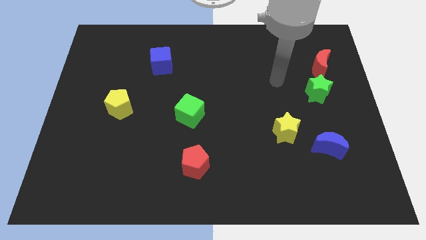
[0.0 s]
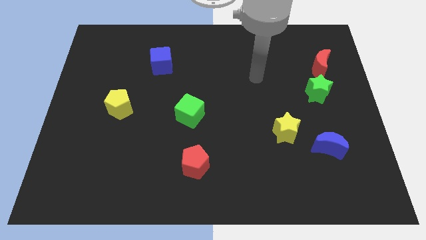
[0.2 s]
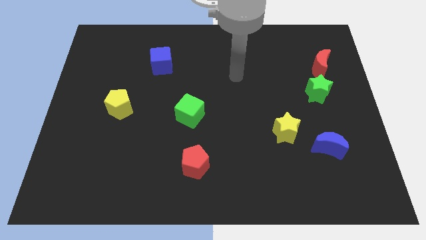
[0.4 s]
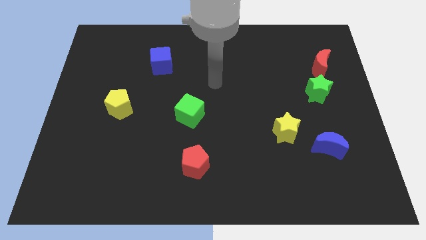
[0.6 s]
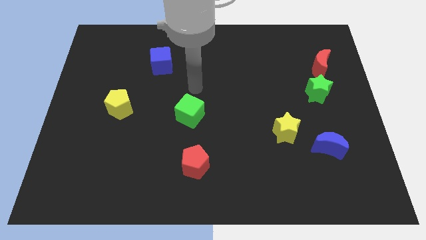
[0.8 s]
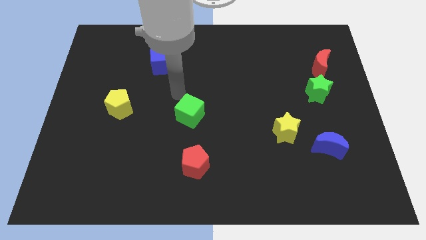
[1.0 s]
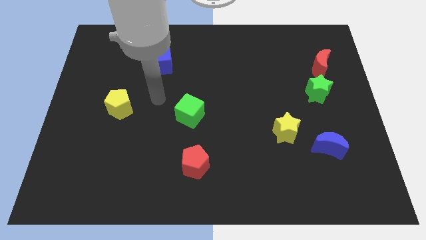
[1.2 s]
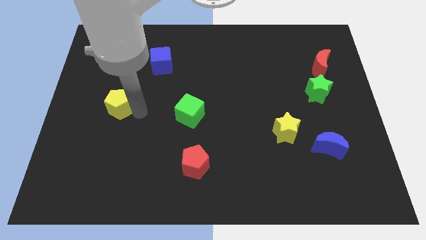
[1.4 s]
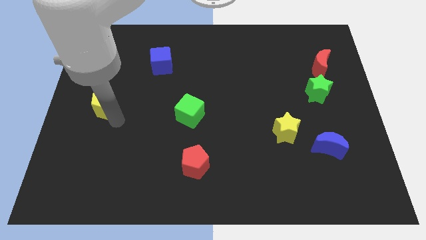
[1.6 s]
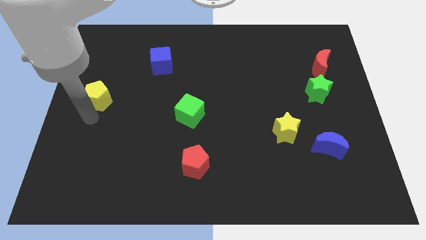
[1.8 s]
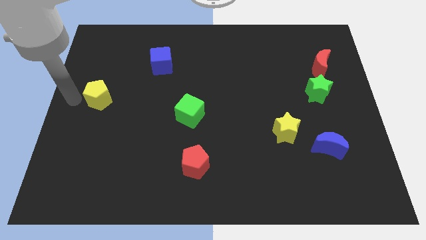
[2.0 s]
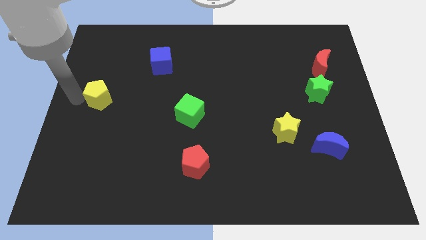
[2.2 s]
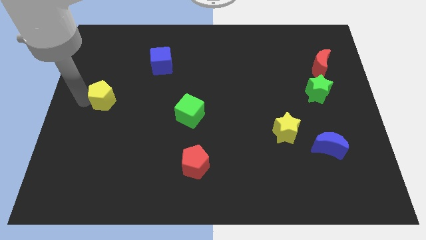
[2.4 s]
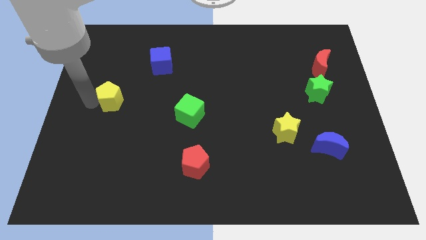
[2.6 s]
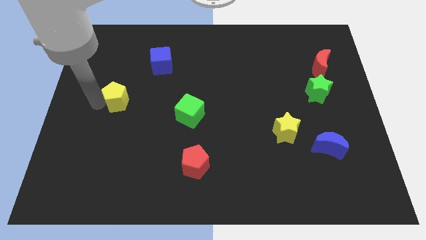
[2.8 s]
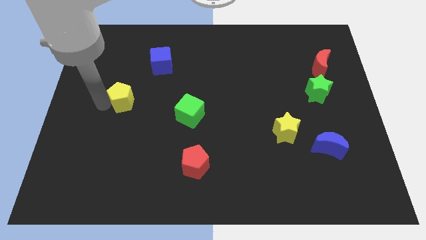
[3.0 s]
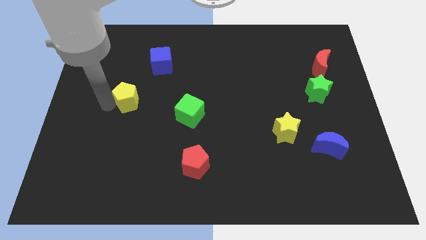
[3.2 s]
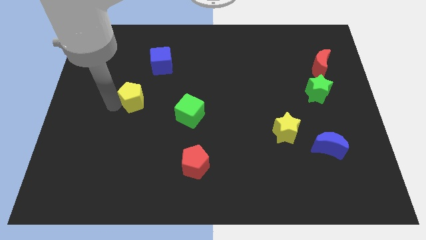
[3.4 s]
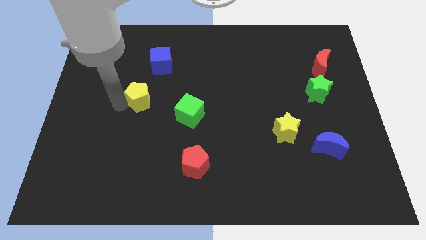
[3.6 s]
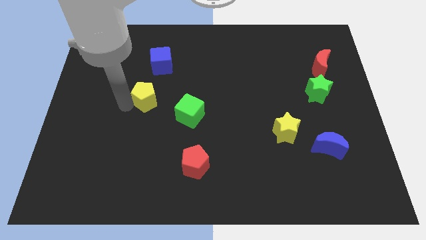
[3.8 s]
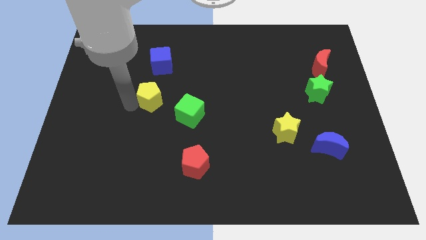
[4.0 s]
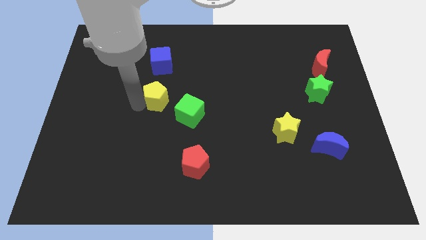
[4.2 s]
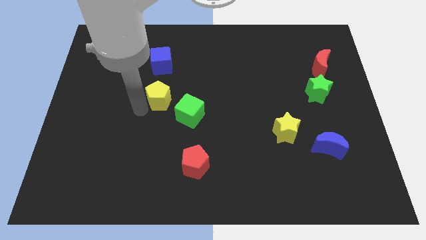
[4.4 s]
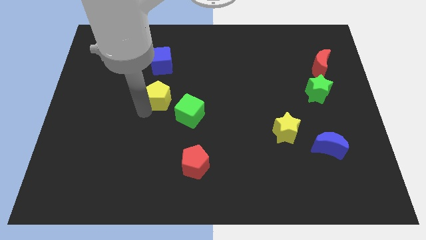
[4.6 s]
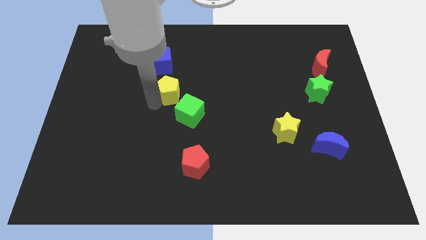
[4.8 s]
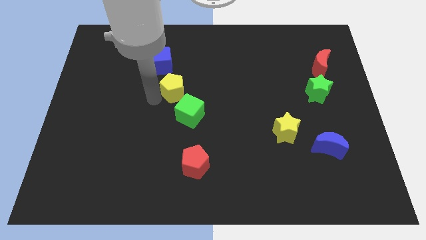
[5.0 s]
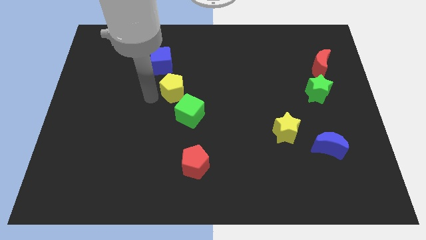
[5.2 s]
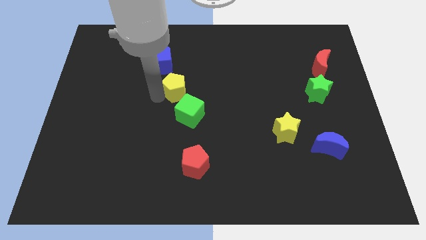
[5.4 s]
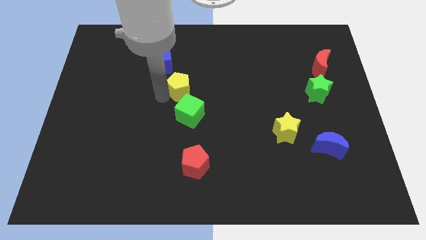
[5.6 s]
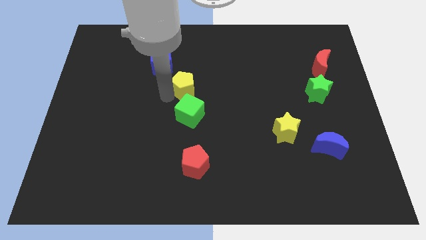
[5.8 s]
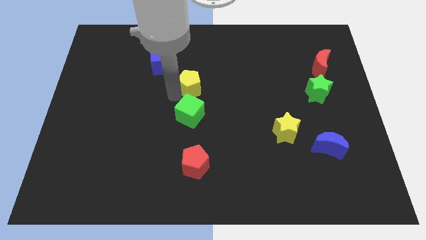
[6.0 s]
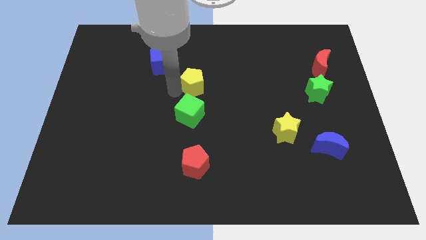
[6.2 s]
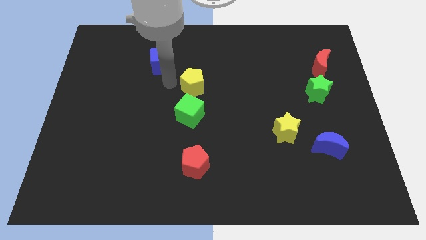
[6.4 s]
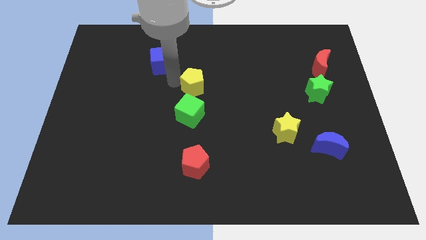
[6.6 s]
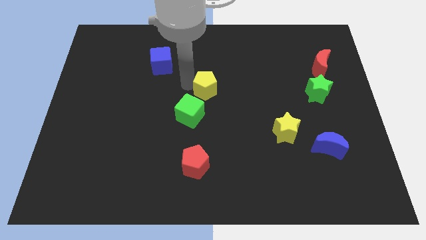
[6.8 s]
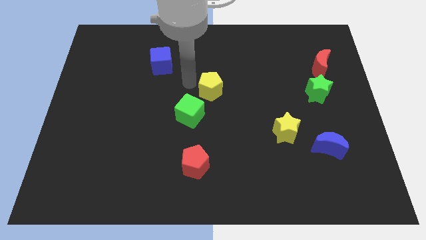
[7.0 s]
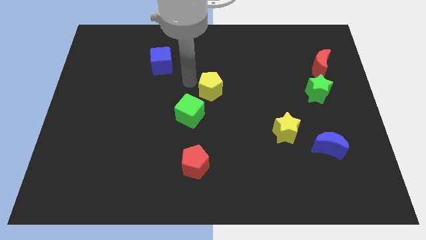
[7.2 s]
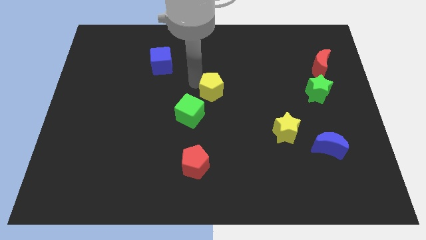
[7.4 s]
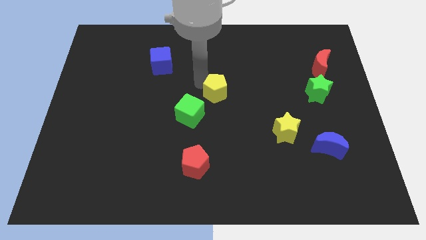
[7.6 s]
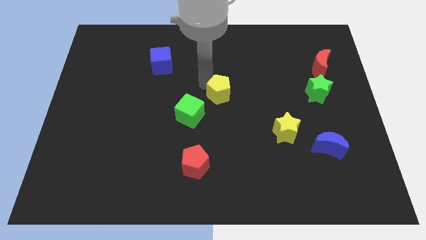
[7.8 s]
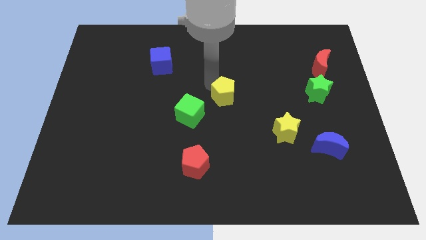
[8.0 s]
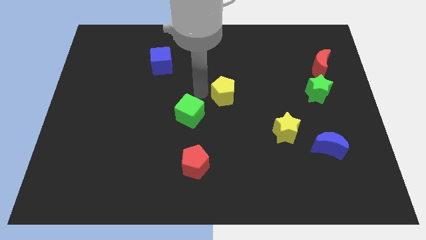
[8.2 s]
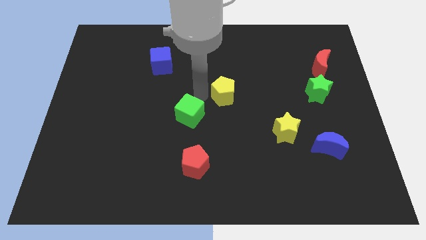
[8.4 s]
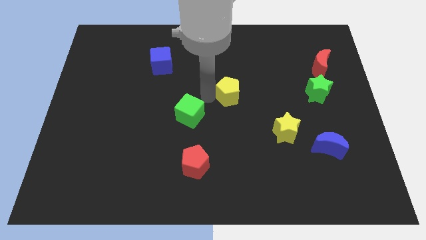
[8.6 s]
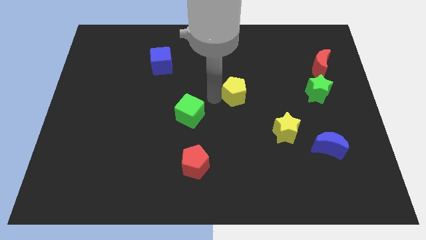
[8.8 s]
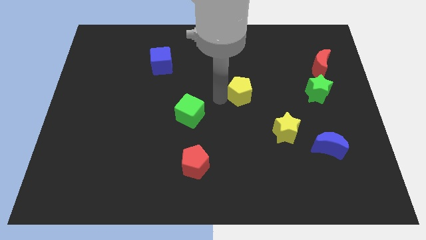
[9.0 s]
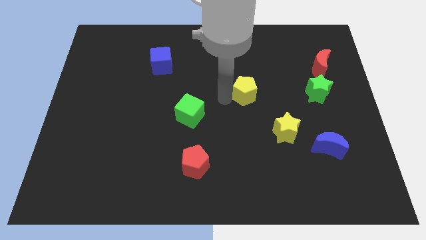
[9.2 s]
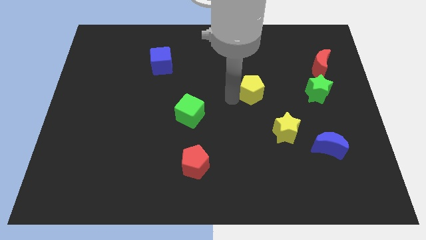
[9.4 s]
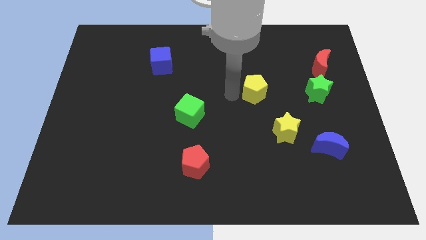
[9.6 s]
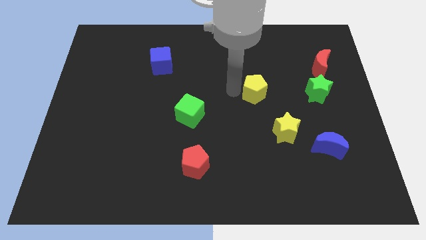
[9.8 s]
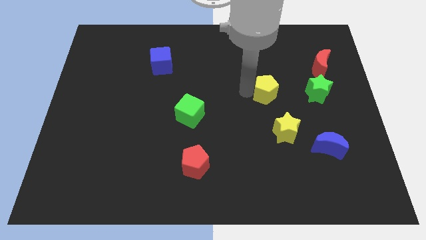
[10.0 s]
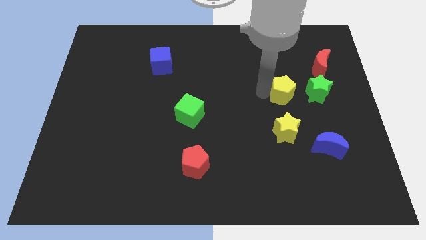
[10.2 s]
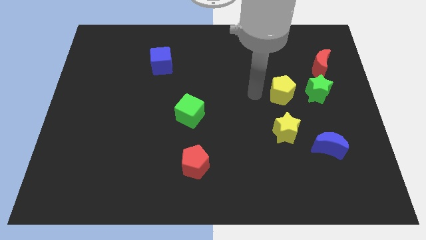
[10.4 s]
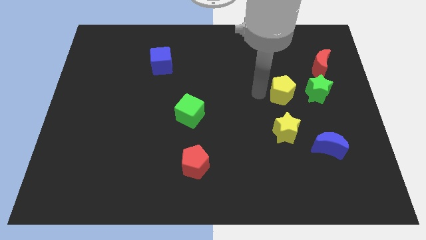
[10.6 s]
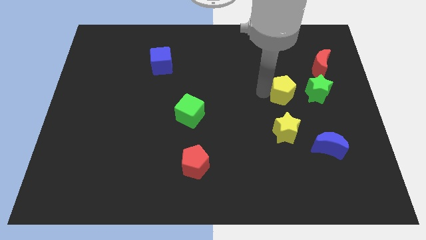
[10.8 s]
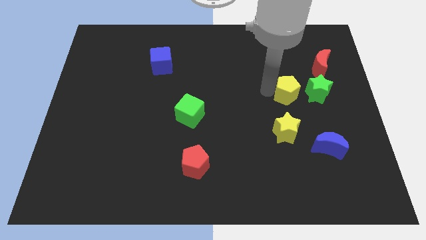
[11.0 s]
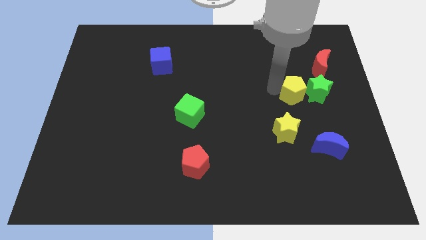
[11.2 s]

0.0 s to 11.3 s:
move the yellow pentagon close to the green star

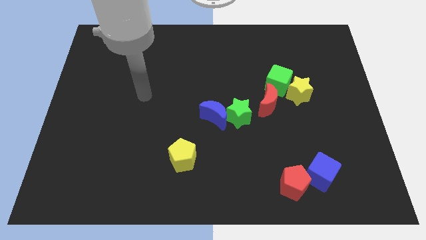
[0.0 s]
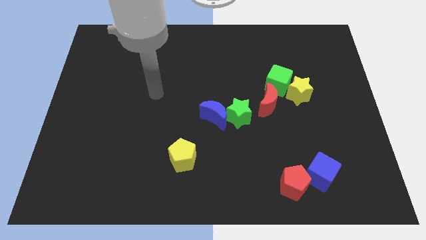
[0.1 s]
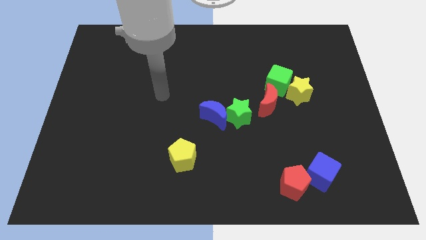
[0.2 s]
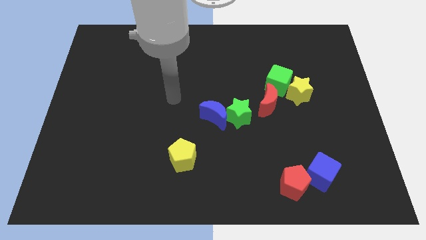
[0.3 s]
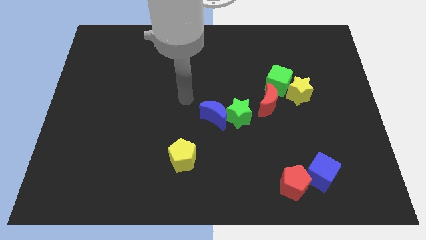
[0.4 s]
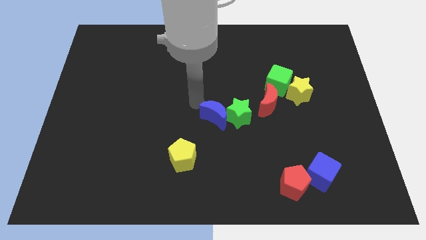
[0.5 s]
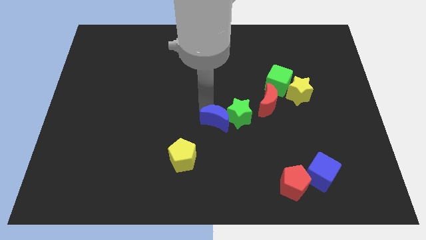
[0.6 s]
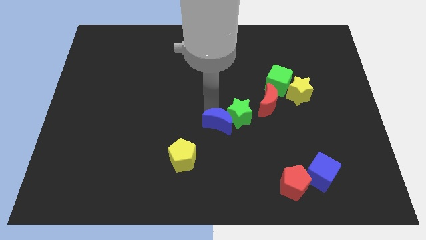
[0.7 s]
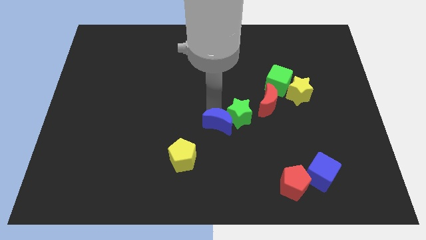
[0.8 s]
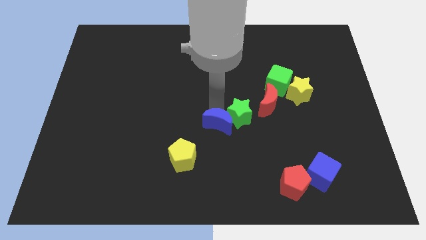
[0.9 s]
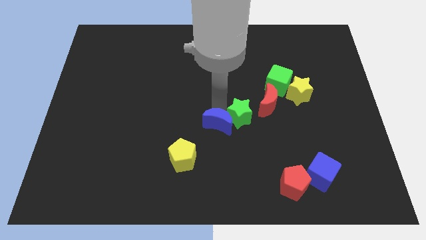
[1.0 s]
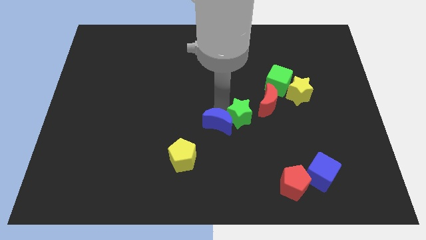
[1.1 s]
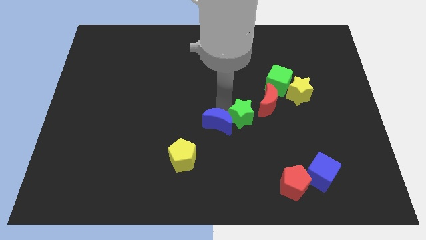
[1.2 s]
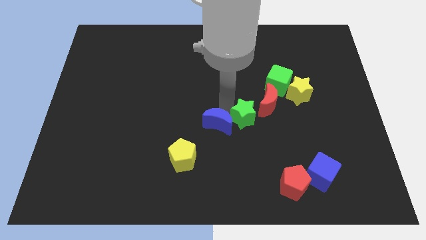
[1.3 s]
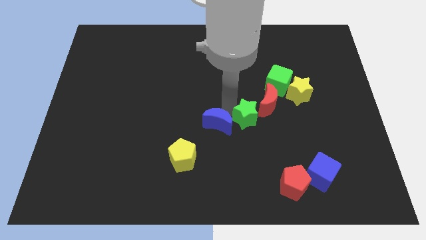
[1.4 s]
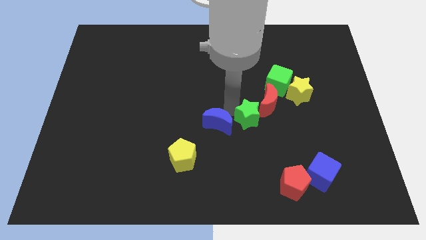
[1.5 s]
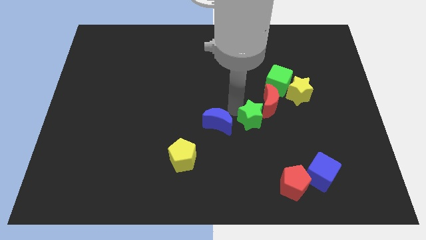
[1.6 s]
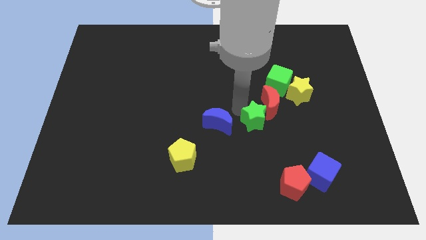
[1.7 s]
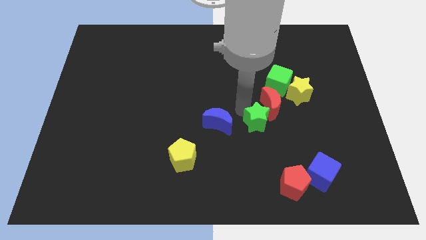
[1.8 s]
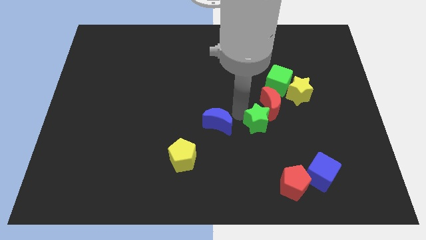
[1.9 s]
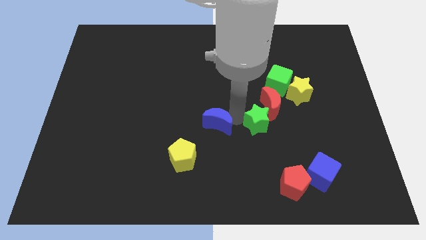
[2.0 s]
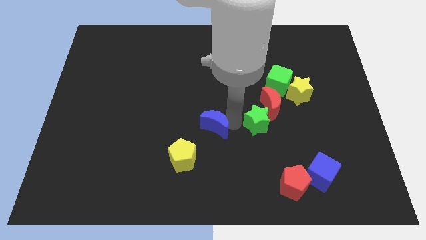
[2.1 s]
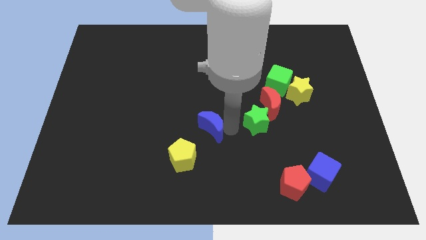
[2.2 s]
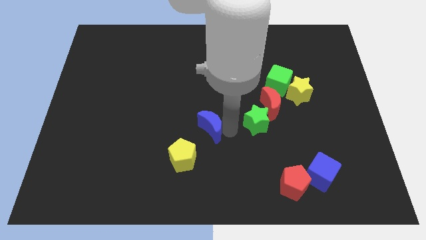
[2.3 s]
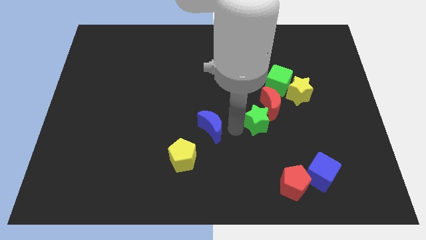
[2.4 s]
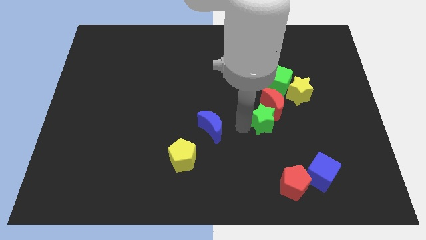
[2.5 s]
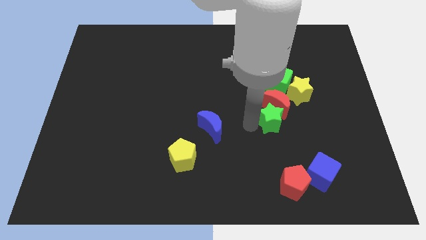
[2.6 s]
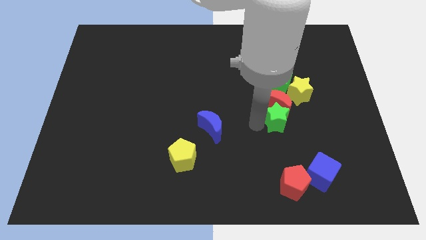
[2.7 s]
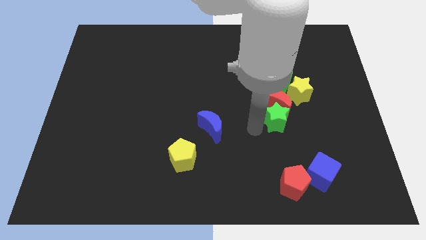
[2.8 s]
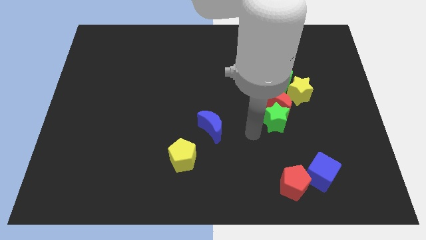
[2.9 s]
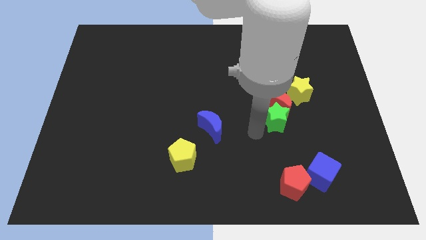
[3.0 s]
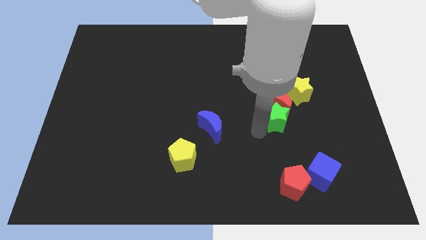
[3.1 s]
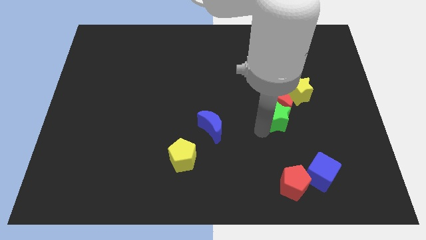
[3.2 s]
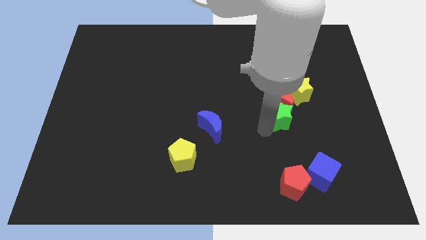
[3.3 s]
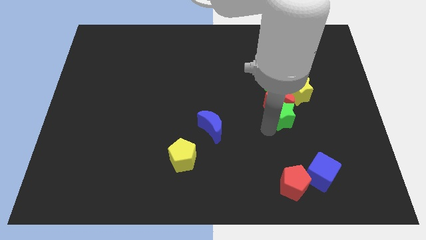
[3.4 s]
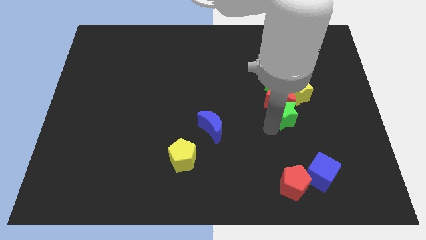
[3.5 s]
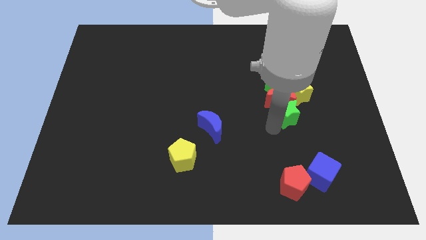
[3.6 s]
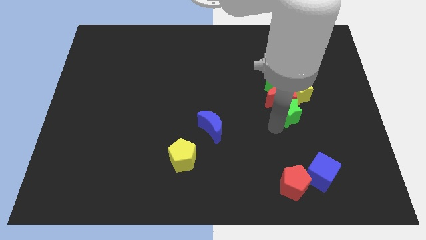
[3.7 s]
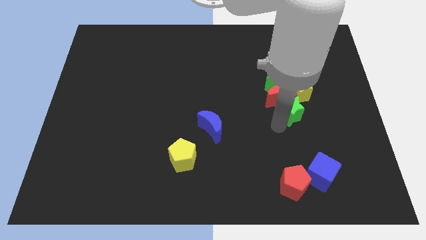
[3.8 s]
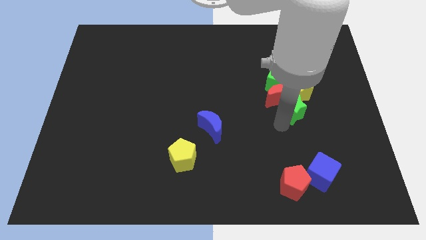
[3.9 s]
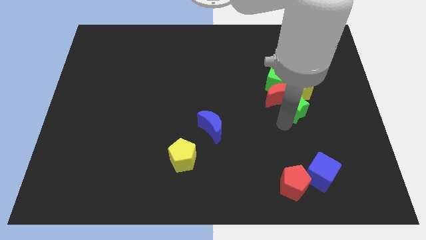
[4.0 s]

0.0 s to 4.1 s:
move the green star close to the yellow star
